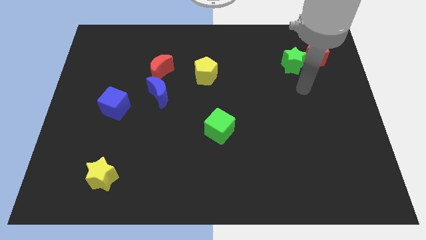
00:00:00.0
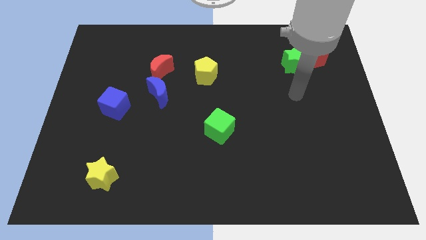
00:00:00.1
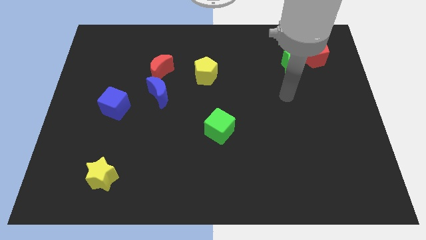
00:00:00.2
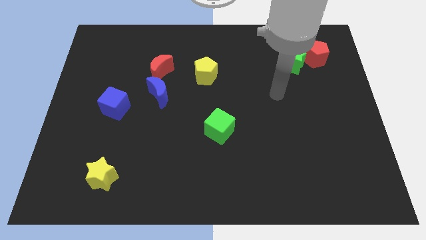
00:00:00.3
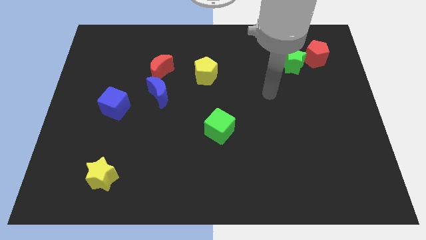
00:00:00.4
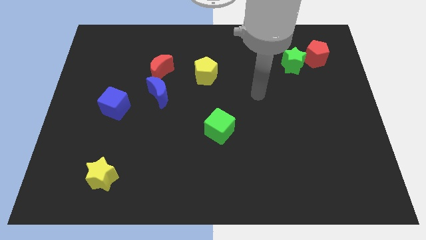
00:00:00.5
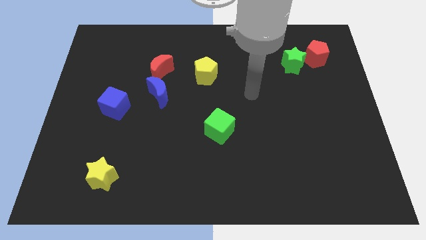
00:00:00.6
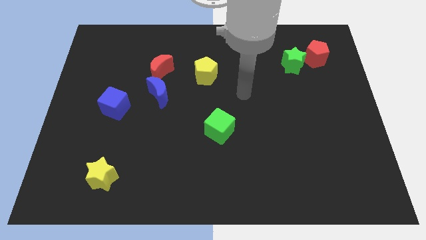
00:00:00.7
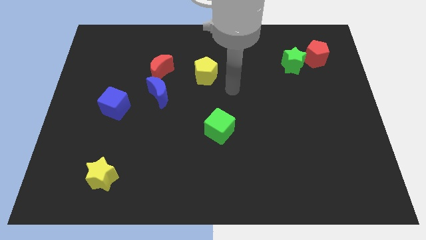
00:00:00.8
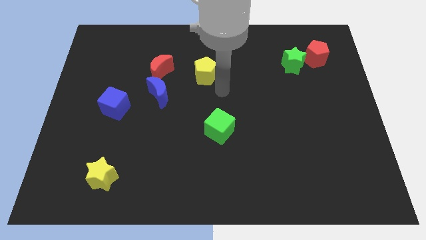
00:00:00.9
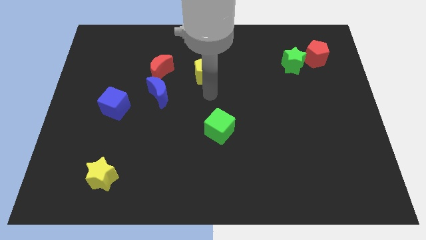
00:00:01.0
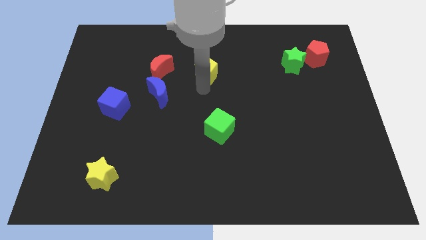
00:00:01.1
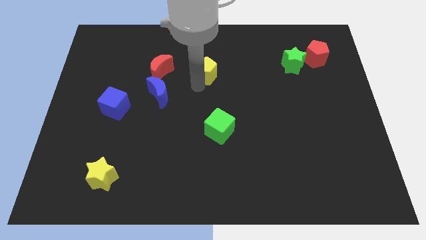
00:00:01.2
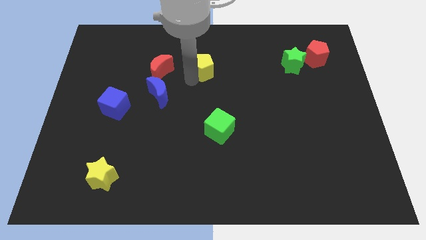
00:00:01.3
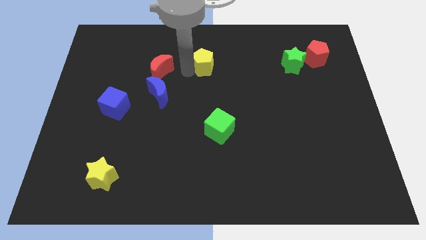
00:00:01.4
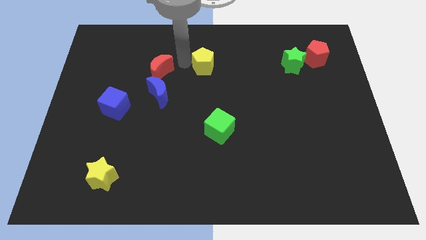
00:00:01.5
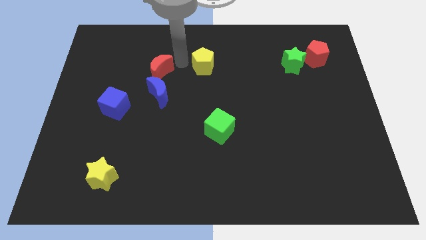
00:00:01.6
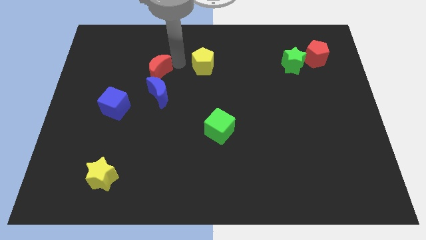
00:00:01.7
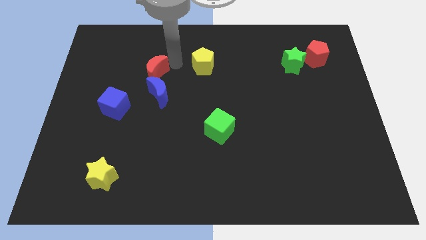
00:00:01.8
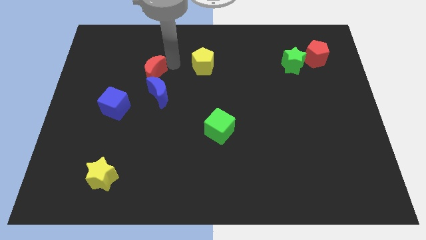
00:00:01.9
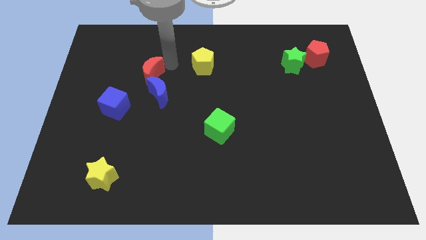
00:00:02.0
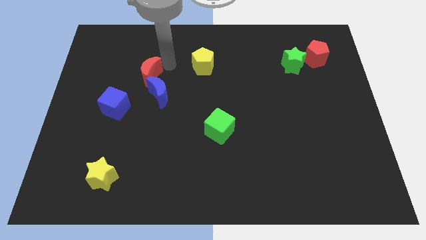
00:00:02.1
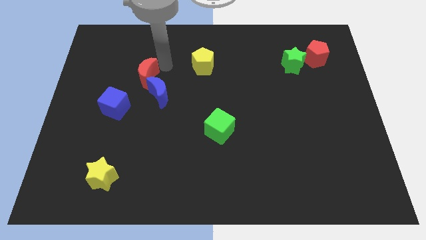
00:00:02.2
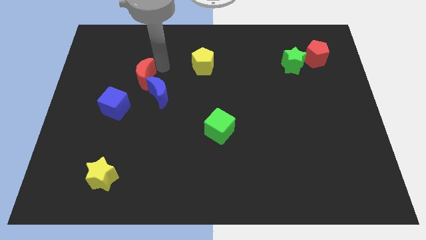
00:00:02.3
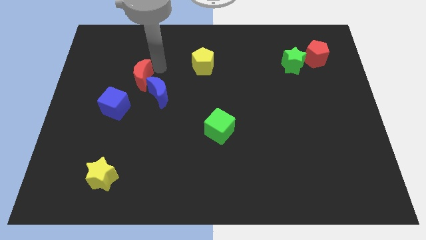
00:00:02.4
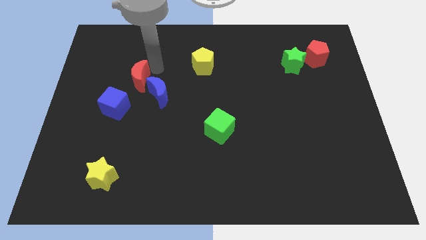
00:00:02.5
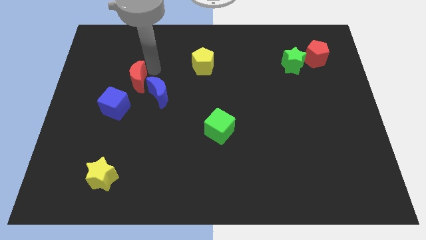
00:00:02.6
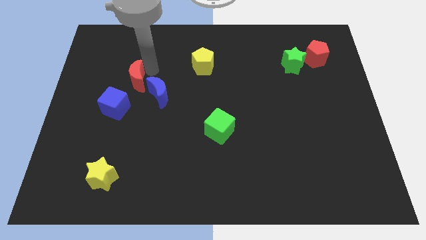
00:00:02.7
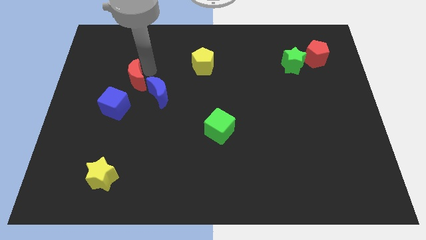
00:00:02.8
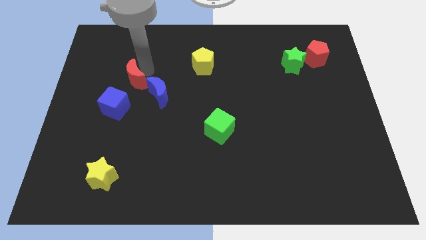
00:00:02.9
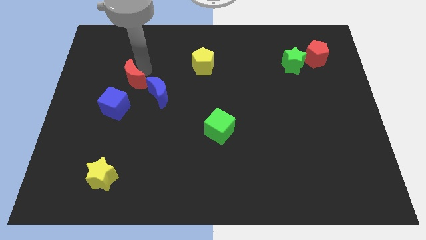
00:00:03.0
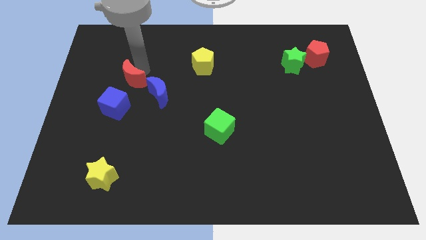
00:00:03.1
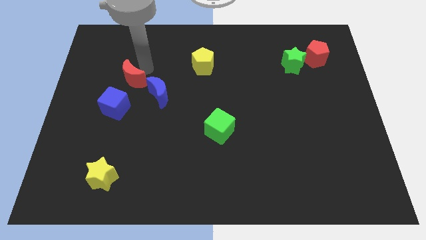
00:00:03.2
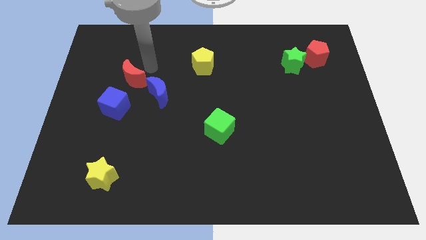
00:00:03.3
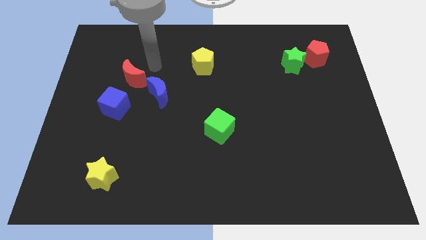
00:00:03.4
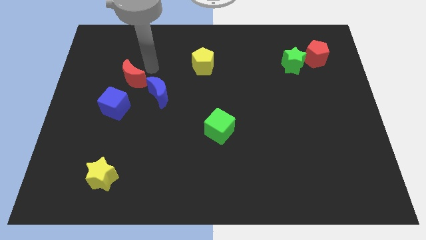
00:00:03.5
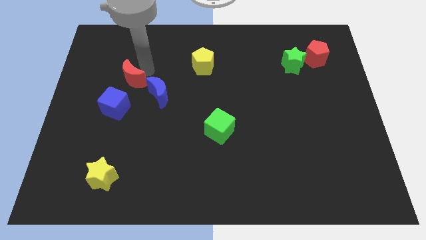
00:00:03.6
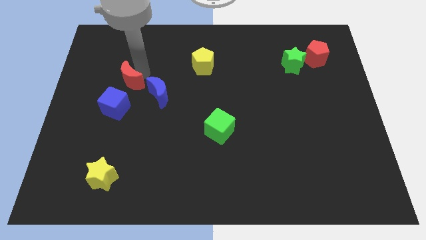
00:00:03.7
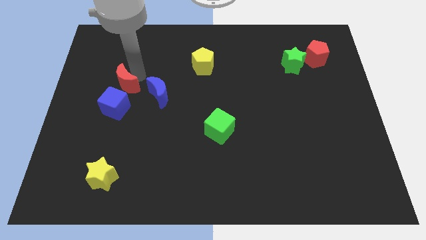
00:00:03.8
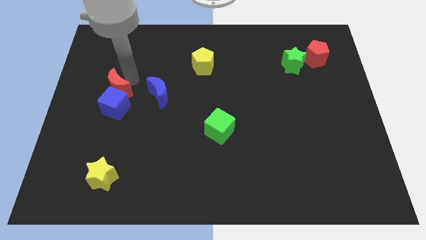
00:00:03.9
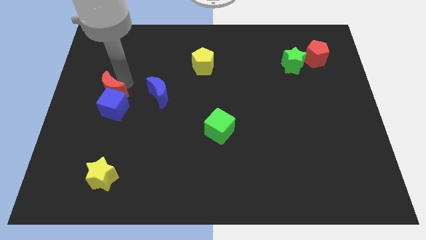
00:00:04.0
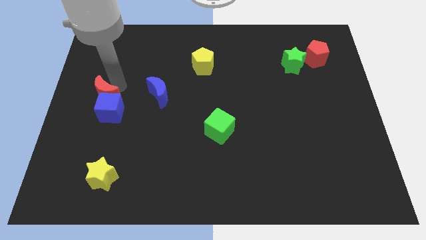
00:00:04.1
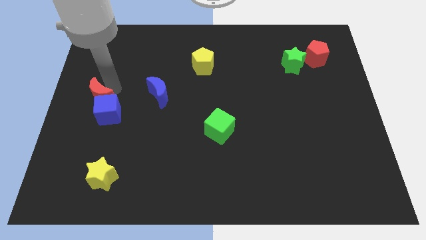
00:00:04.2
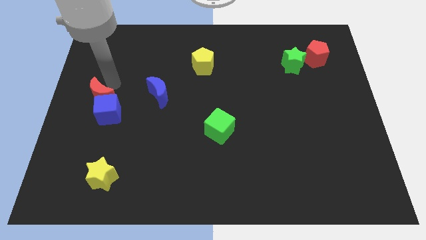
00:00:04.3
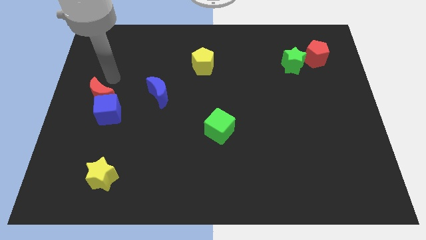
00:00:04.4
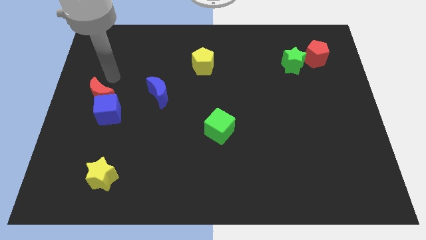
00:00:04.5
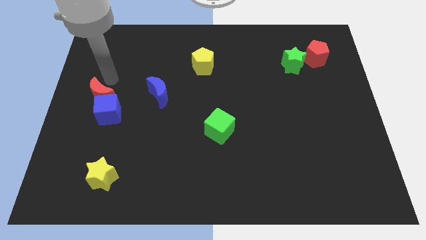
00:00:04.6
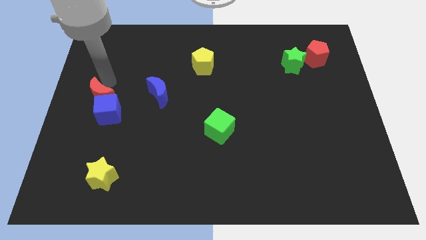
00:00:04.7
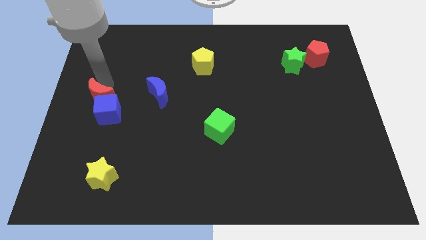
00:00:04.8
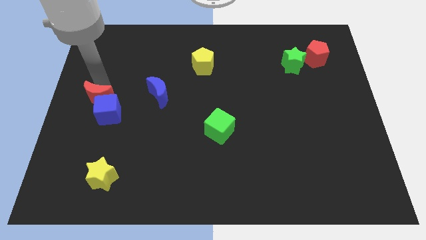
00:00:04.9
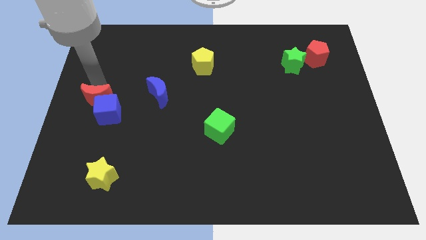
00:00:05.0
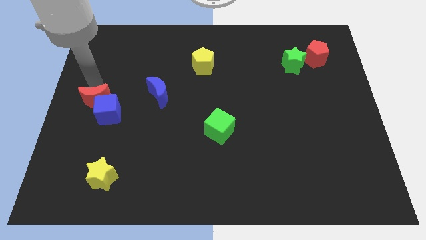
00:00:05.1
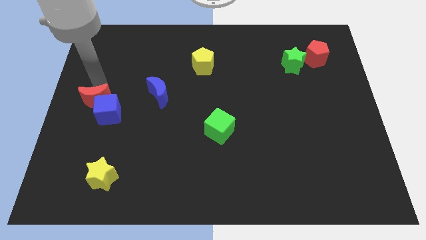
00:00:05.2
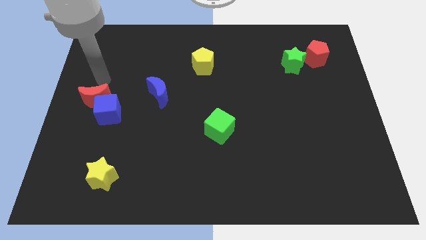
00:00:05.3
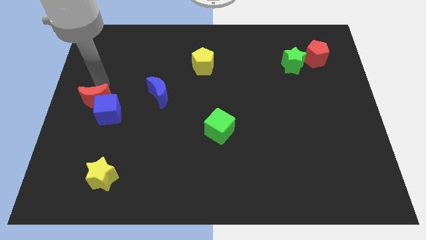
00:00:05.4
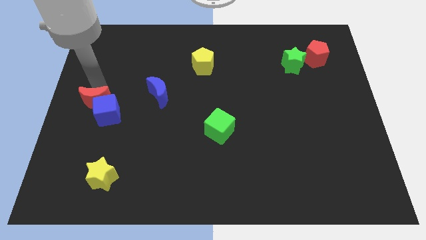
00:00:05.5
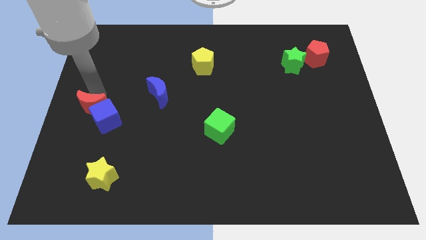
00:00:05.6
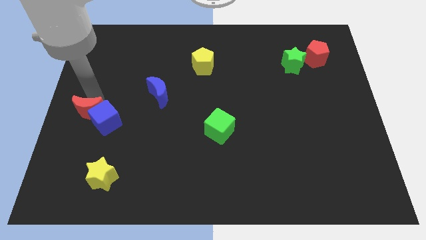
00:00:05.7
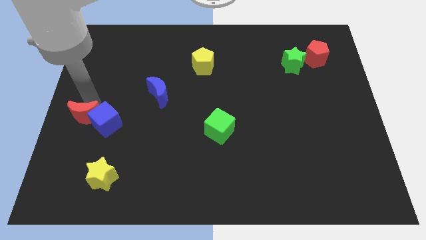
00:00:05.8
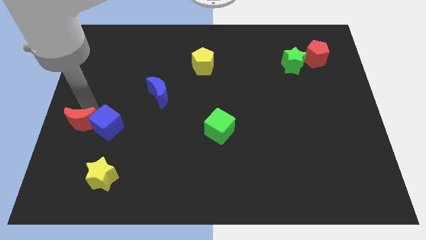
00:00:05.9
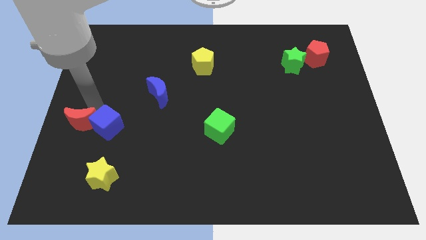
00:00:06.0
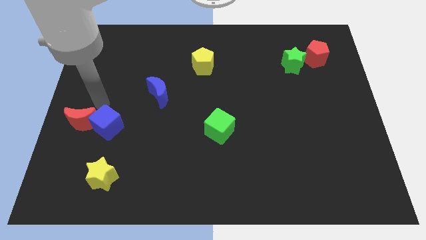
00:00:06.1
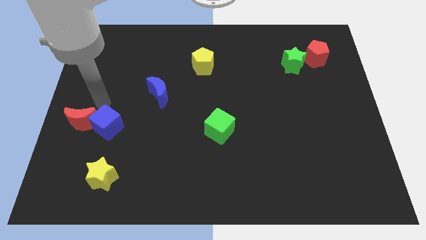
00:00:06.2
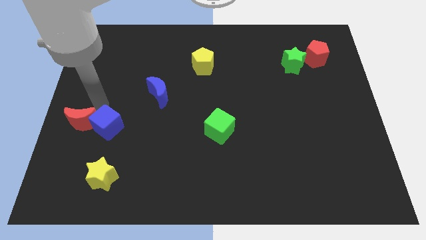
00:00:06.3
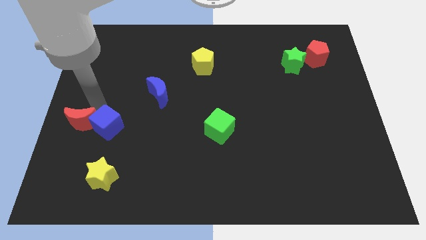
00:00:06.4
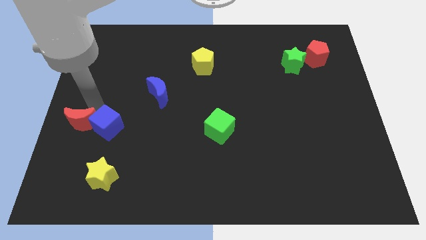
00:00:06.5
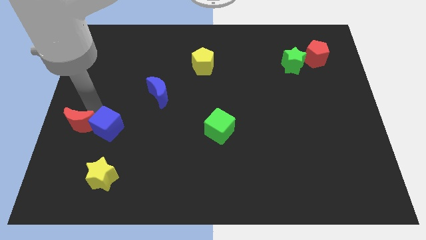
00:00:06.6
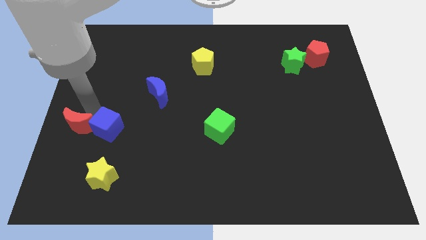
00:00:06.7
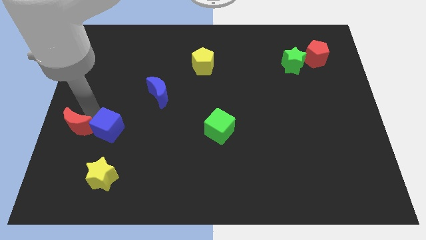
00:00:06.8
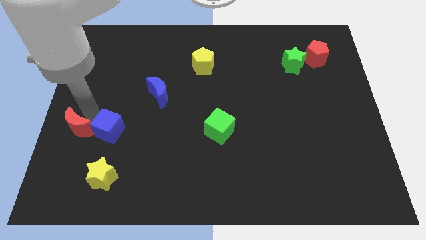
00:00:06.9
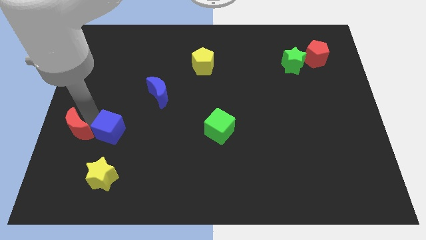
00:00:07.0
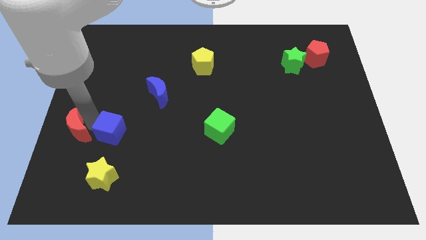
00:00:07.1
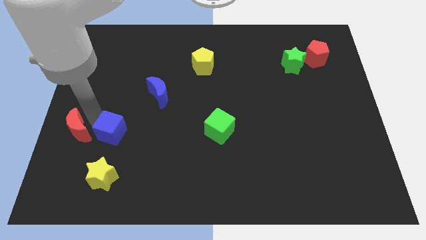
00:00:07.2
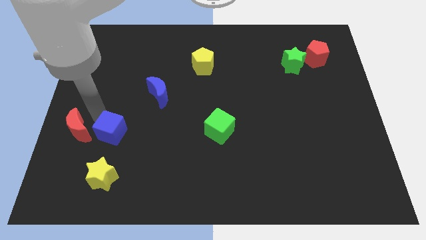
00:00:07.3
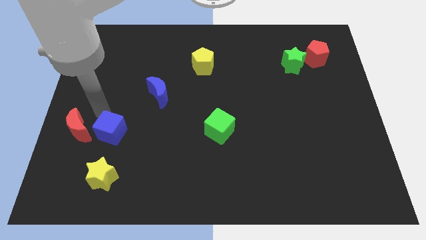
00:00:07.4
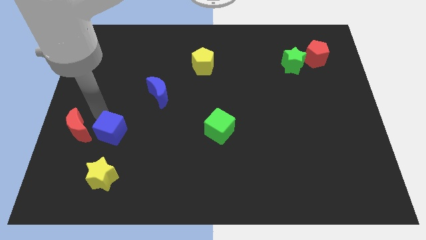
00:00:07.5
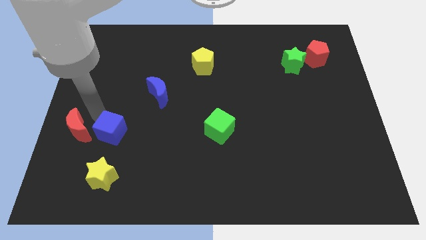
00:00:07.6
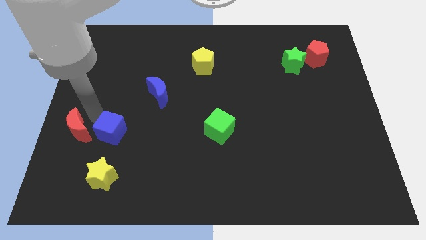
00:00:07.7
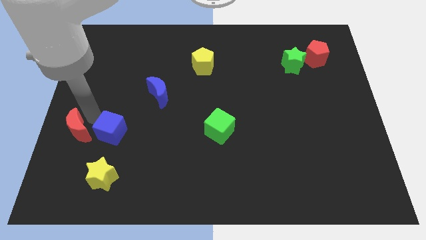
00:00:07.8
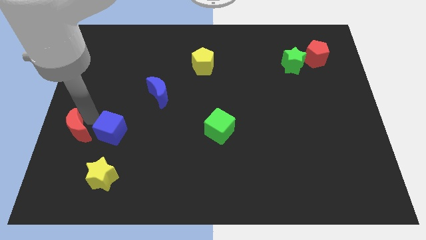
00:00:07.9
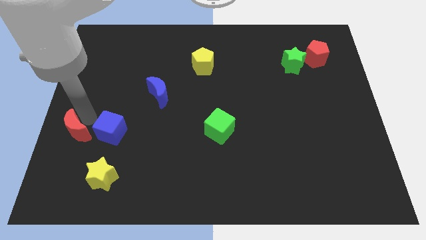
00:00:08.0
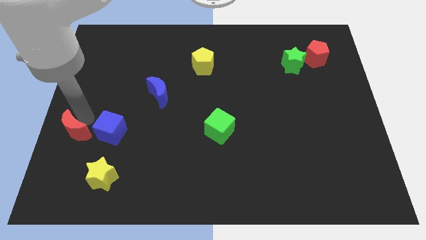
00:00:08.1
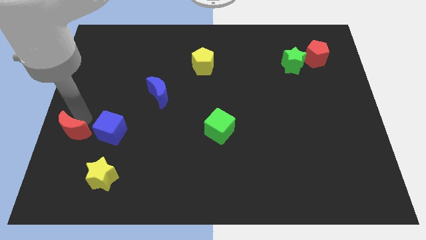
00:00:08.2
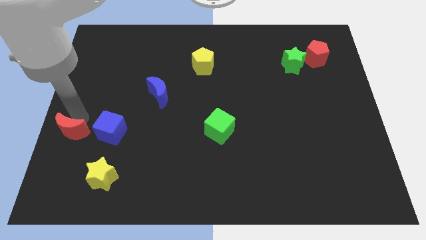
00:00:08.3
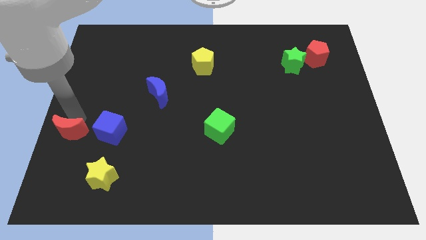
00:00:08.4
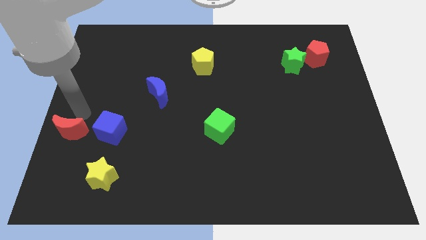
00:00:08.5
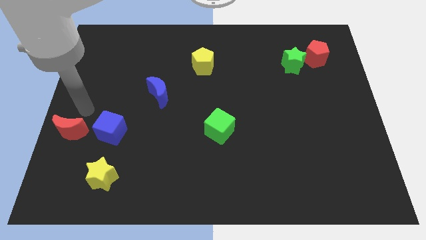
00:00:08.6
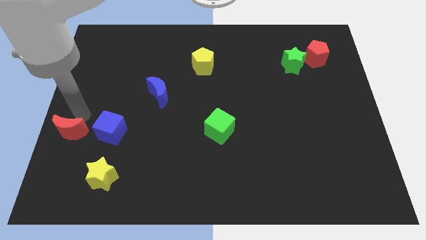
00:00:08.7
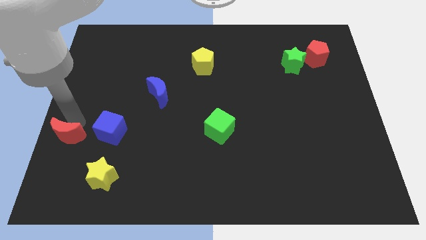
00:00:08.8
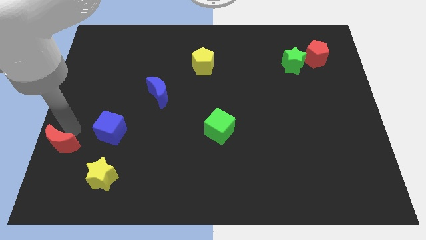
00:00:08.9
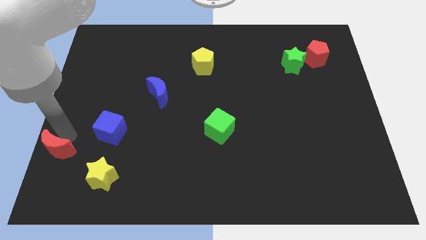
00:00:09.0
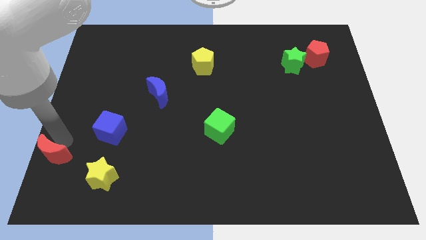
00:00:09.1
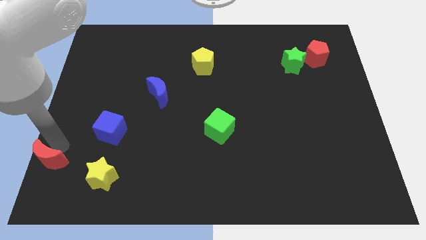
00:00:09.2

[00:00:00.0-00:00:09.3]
push the red moon to the bottom left corner
